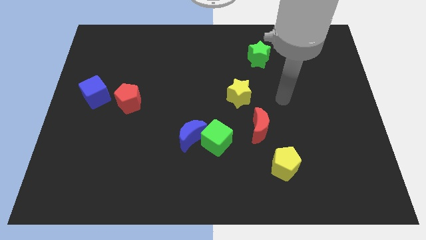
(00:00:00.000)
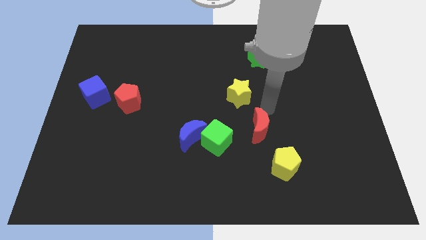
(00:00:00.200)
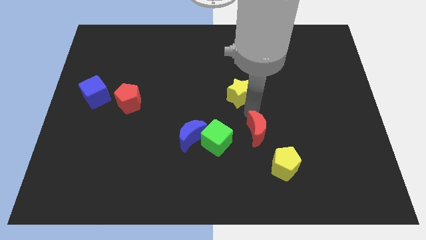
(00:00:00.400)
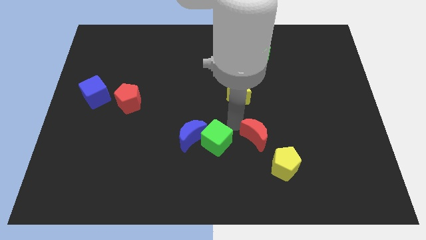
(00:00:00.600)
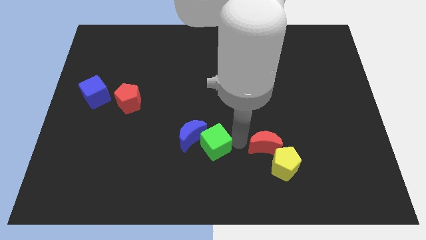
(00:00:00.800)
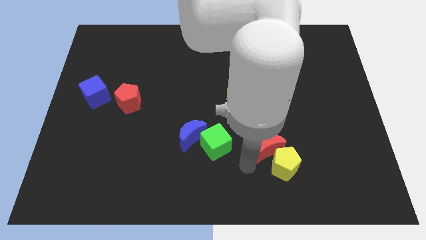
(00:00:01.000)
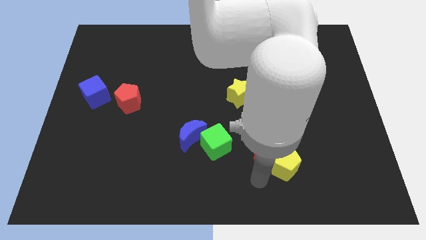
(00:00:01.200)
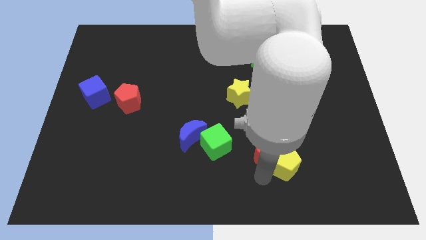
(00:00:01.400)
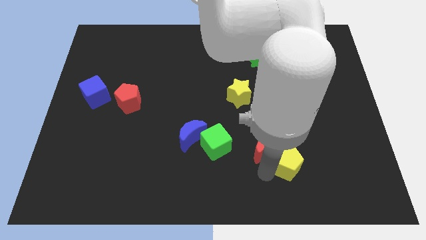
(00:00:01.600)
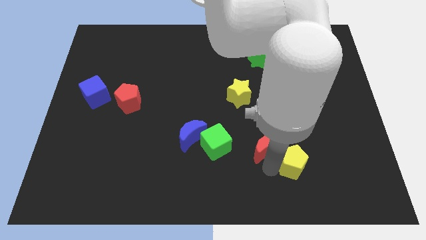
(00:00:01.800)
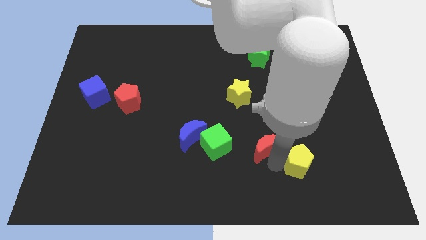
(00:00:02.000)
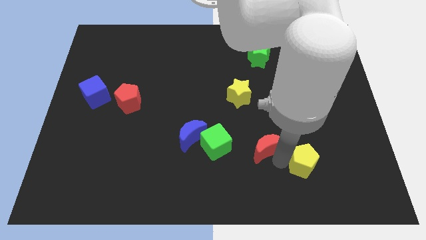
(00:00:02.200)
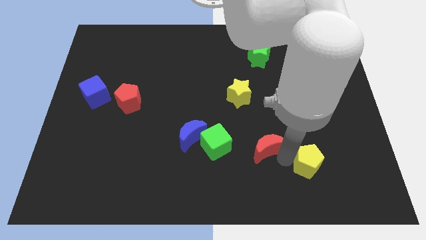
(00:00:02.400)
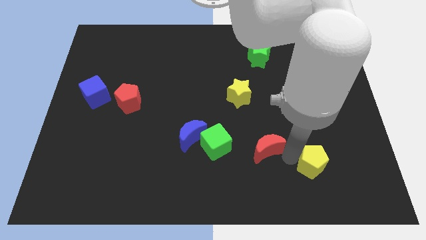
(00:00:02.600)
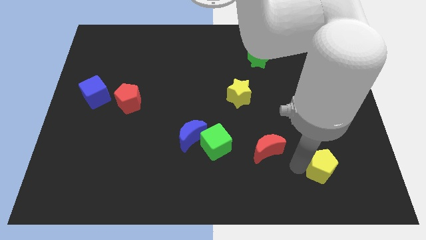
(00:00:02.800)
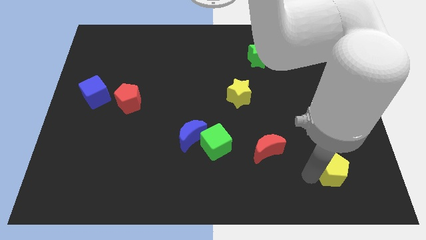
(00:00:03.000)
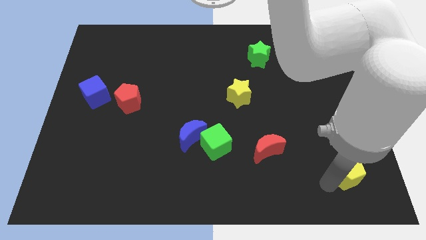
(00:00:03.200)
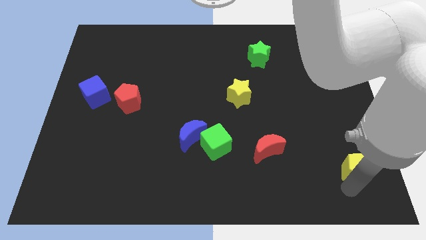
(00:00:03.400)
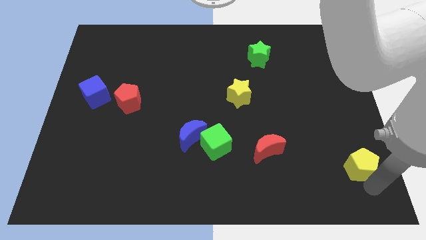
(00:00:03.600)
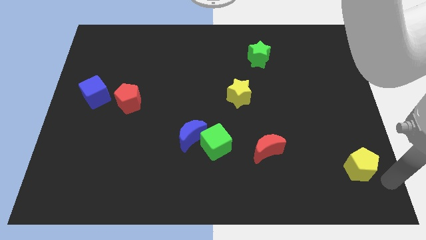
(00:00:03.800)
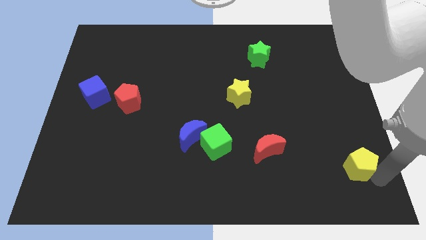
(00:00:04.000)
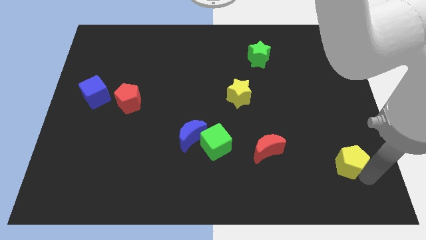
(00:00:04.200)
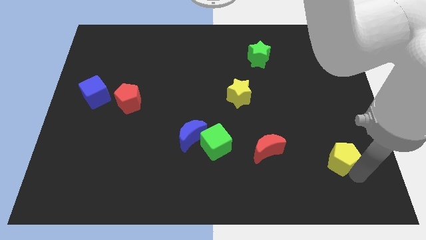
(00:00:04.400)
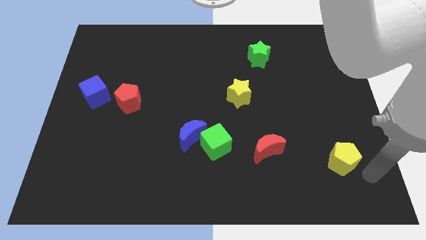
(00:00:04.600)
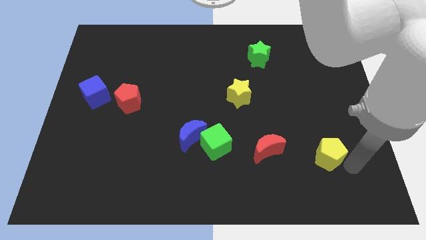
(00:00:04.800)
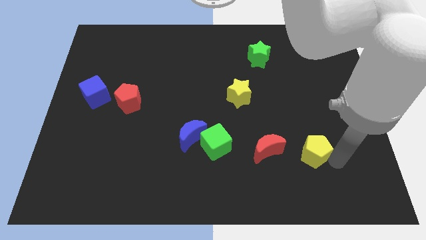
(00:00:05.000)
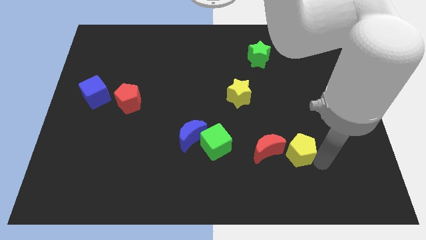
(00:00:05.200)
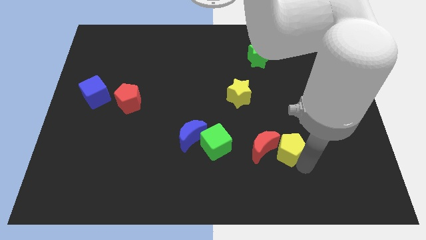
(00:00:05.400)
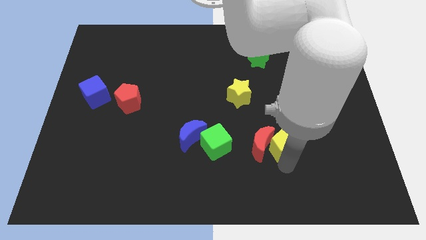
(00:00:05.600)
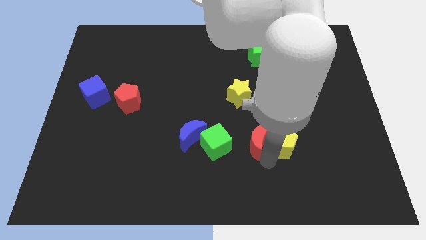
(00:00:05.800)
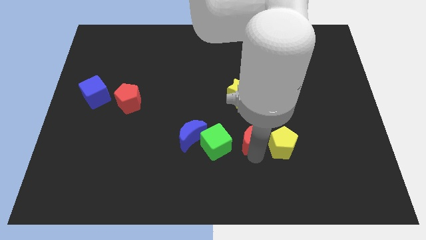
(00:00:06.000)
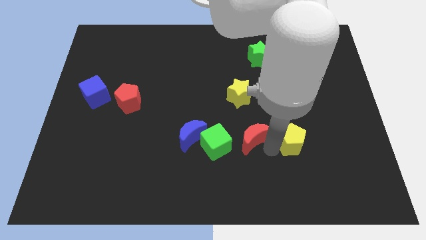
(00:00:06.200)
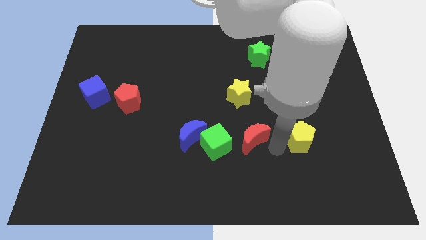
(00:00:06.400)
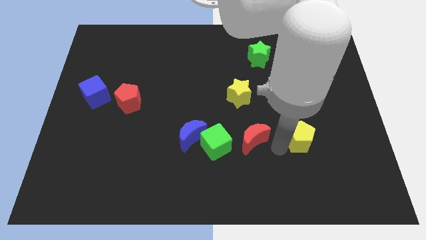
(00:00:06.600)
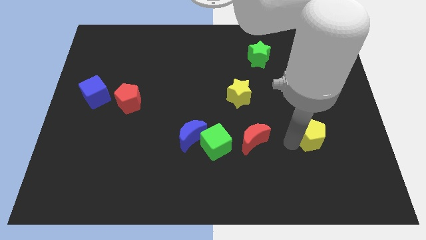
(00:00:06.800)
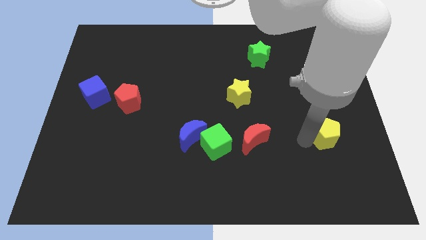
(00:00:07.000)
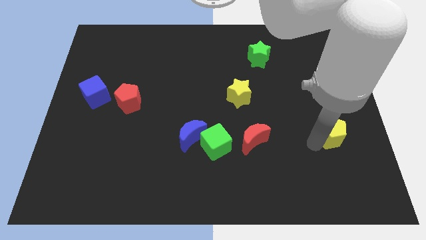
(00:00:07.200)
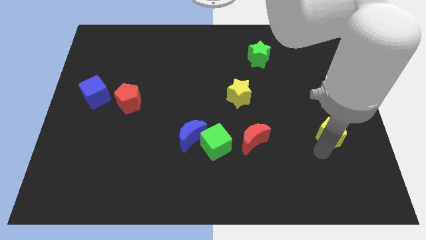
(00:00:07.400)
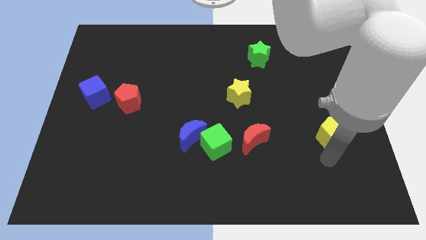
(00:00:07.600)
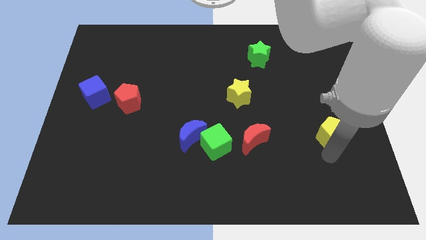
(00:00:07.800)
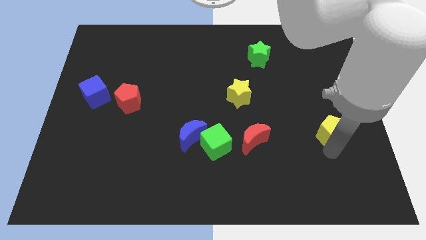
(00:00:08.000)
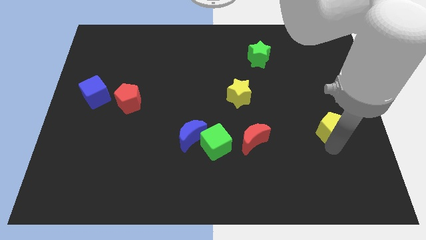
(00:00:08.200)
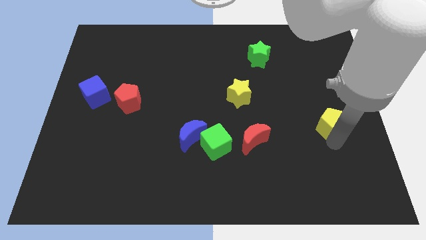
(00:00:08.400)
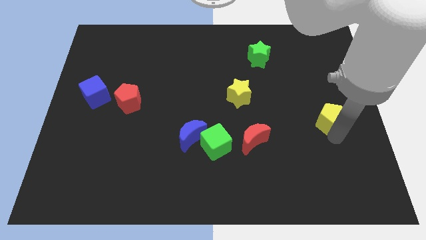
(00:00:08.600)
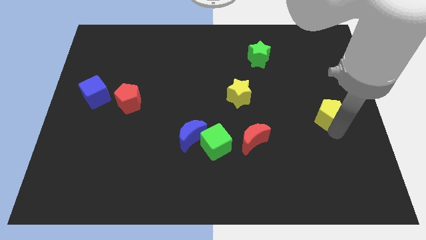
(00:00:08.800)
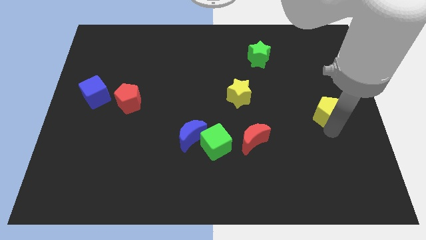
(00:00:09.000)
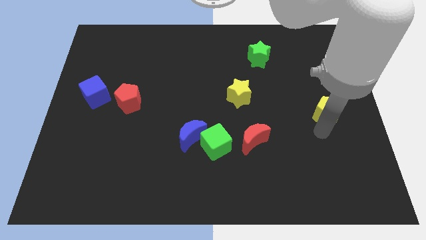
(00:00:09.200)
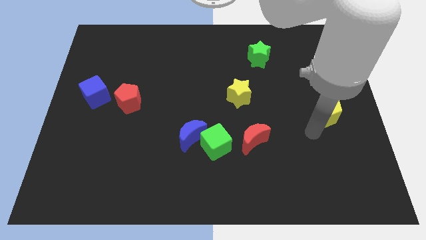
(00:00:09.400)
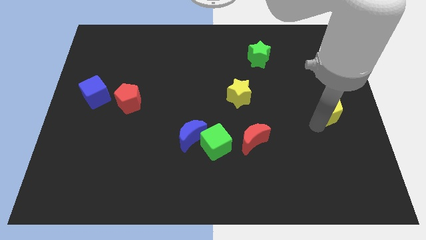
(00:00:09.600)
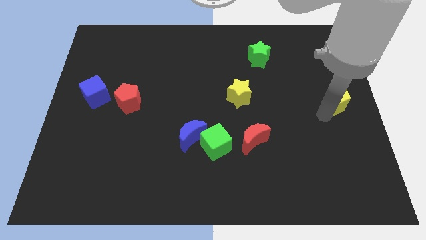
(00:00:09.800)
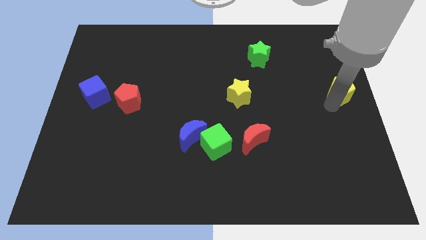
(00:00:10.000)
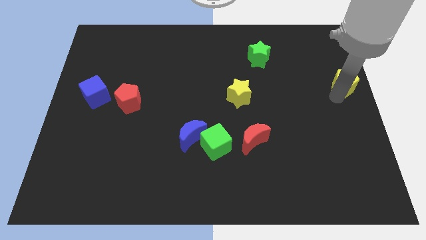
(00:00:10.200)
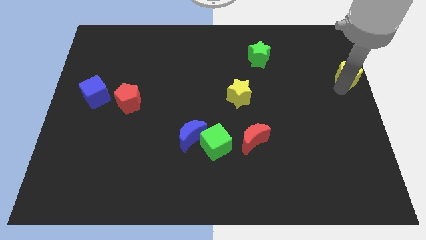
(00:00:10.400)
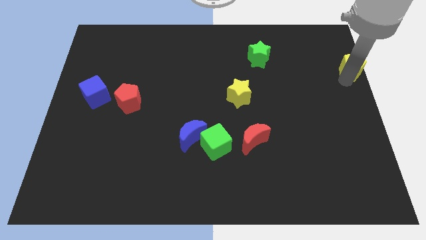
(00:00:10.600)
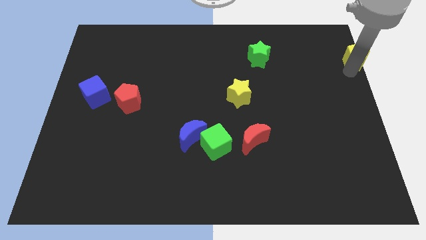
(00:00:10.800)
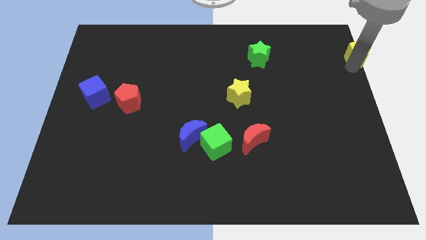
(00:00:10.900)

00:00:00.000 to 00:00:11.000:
slide the yellow pentagon to the top right corner
